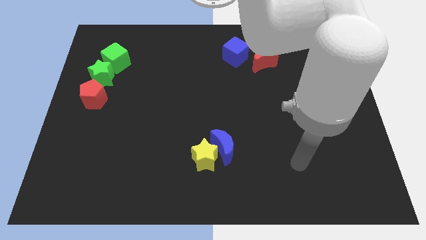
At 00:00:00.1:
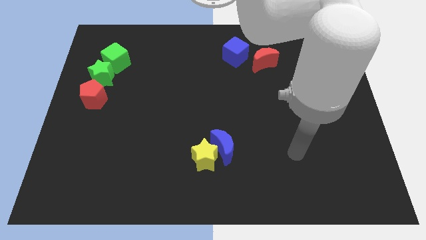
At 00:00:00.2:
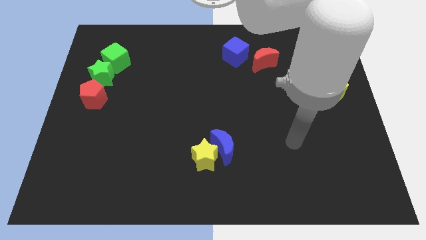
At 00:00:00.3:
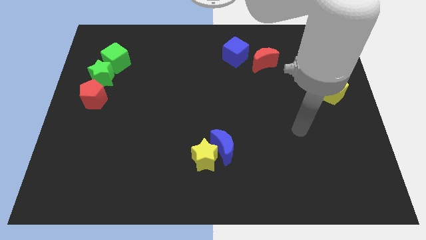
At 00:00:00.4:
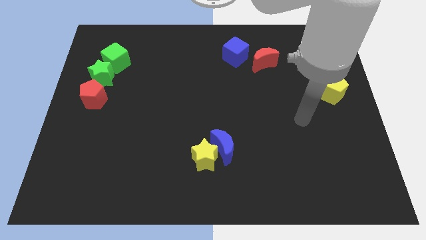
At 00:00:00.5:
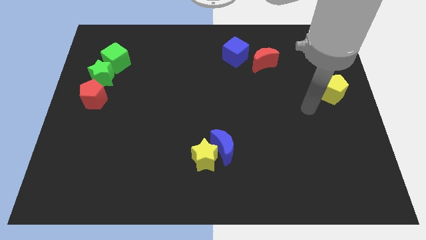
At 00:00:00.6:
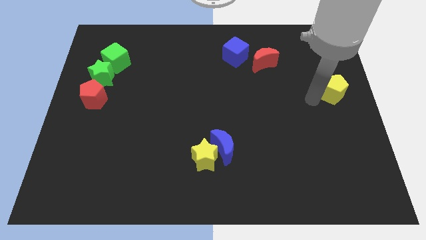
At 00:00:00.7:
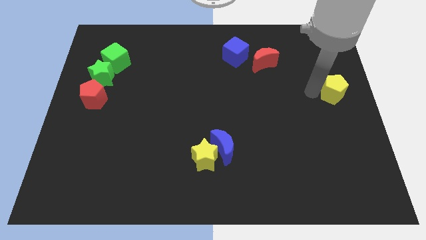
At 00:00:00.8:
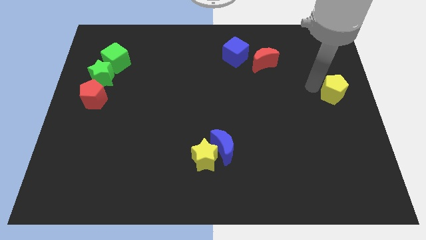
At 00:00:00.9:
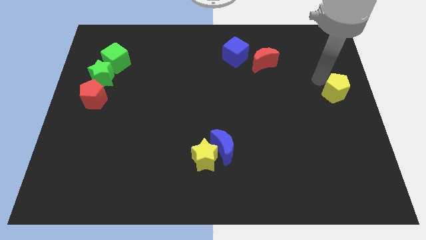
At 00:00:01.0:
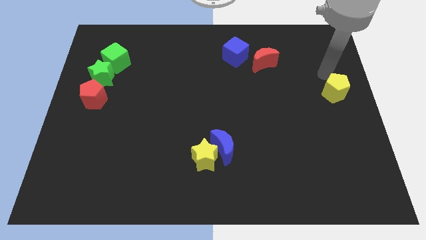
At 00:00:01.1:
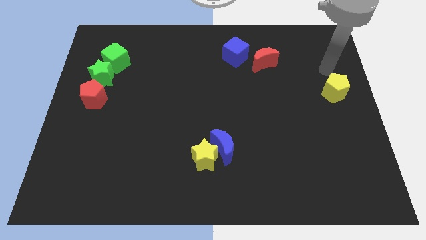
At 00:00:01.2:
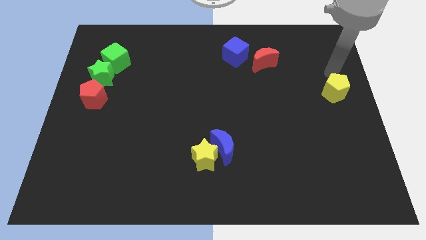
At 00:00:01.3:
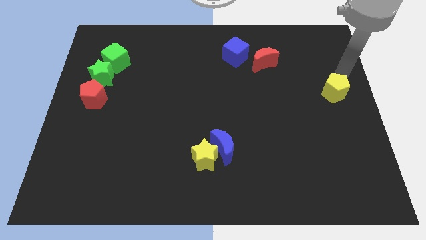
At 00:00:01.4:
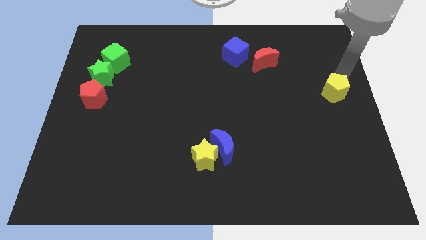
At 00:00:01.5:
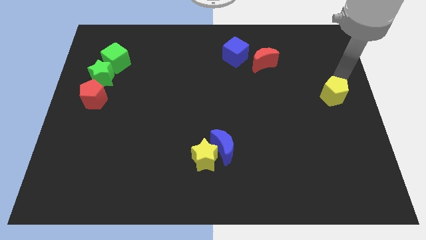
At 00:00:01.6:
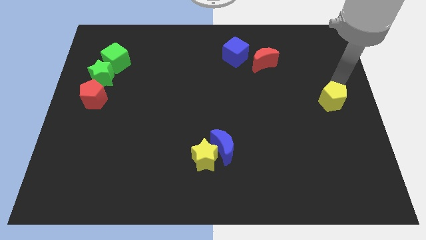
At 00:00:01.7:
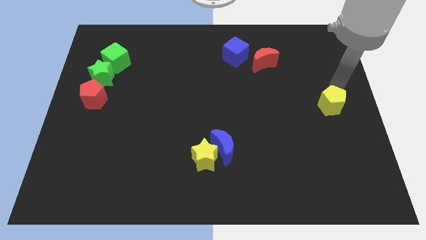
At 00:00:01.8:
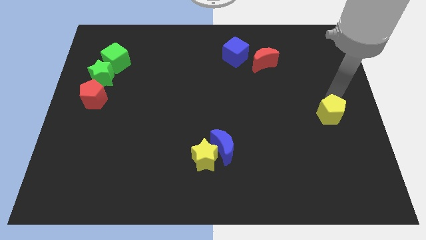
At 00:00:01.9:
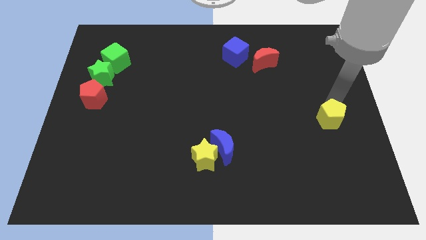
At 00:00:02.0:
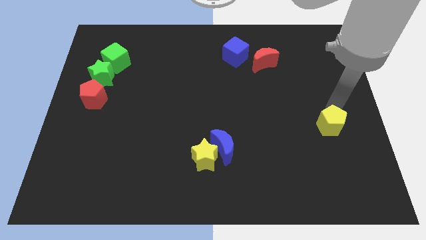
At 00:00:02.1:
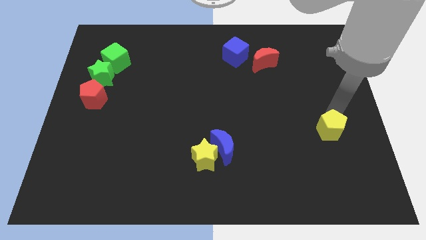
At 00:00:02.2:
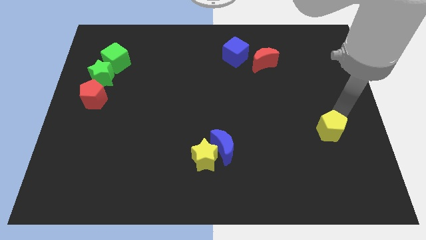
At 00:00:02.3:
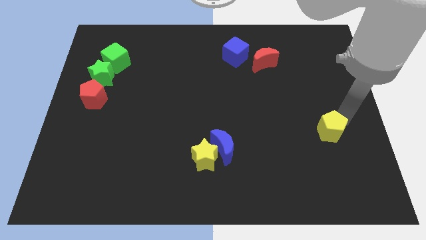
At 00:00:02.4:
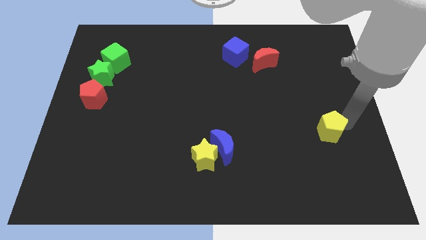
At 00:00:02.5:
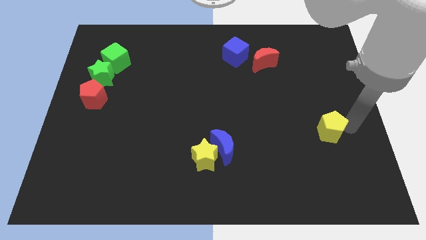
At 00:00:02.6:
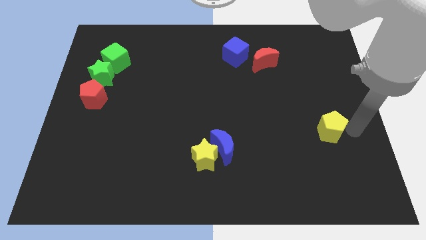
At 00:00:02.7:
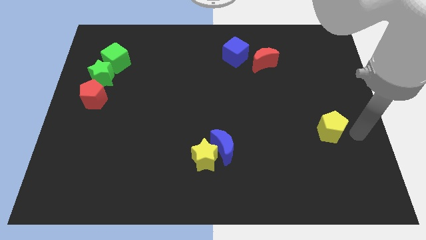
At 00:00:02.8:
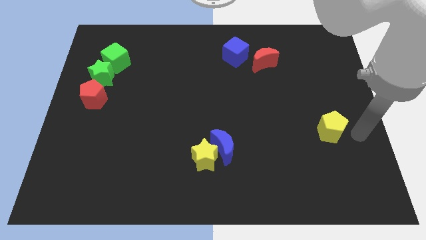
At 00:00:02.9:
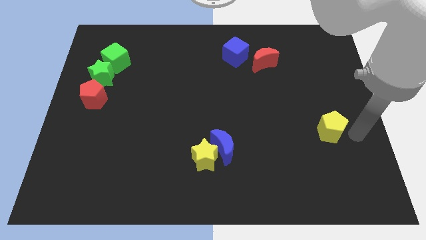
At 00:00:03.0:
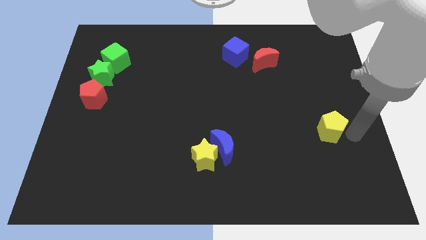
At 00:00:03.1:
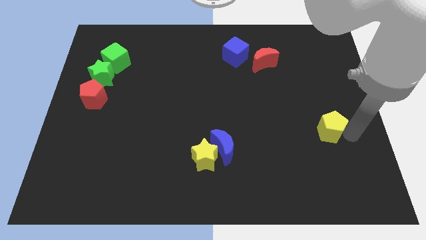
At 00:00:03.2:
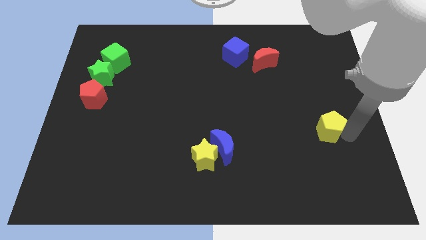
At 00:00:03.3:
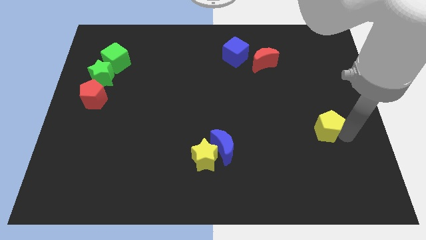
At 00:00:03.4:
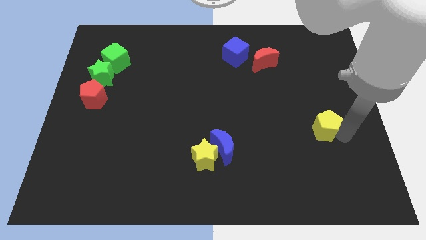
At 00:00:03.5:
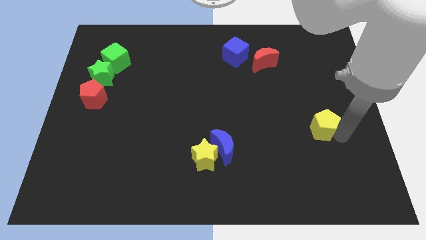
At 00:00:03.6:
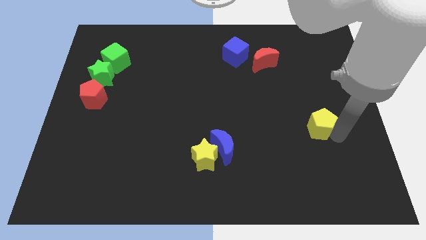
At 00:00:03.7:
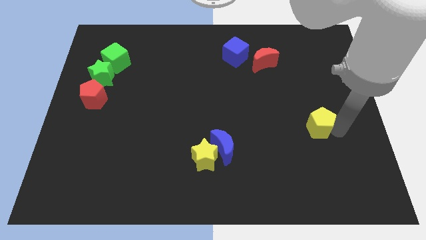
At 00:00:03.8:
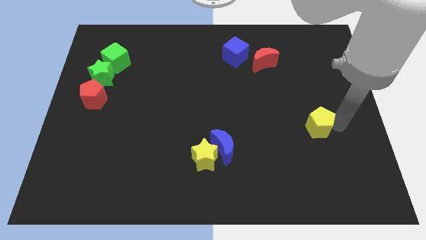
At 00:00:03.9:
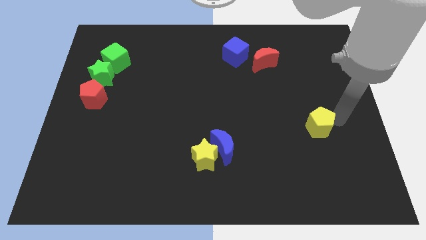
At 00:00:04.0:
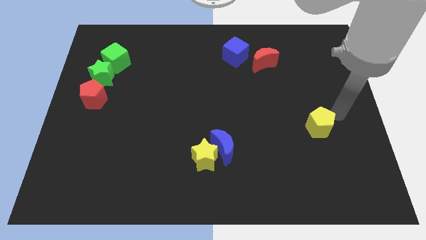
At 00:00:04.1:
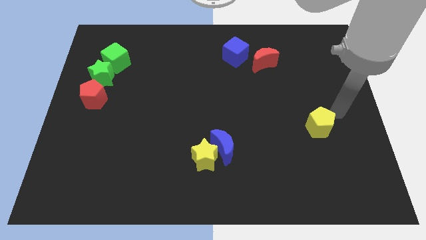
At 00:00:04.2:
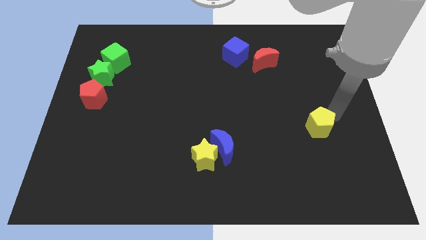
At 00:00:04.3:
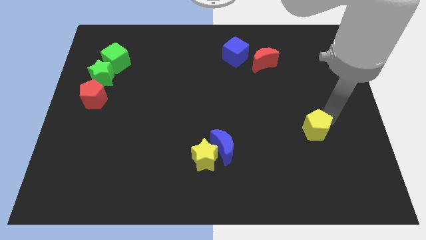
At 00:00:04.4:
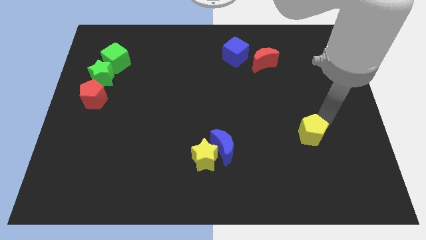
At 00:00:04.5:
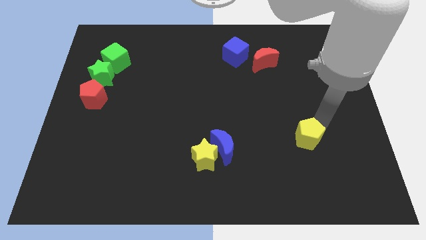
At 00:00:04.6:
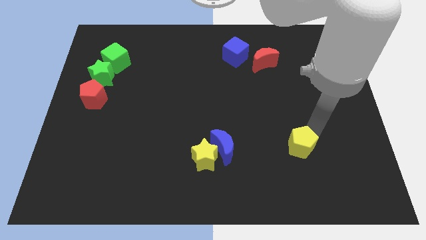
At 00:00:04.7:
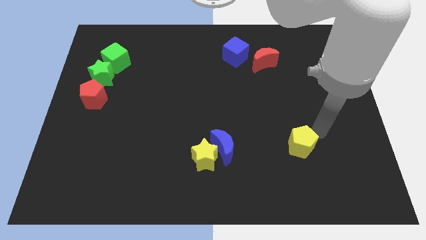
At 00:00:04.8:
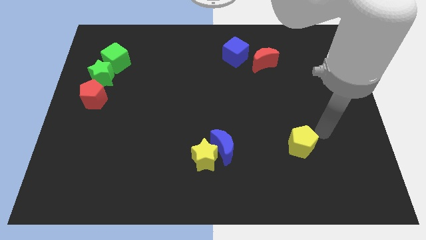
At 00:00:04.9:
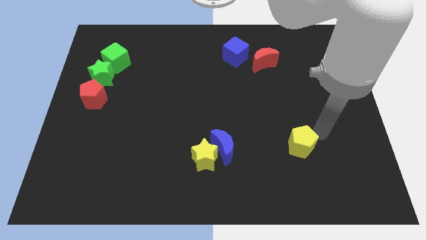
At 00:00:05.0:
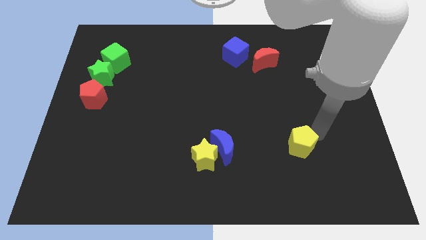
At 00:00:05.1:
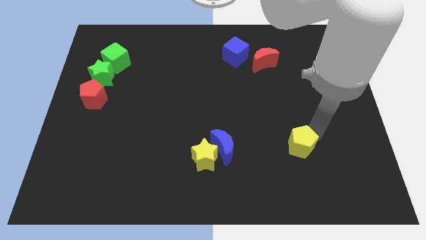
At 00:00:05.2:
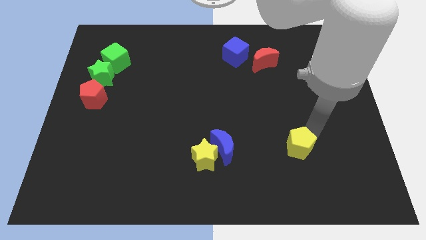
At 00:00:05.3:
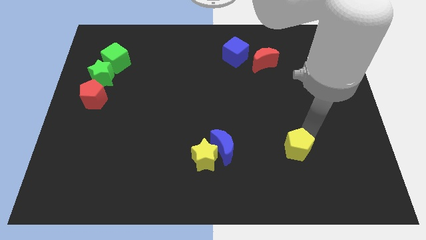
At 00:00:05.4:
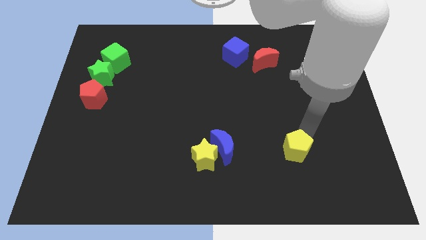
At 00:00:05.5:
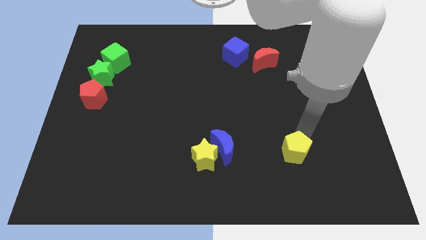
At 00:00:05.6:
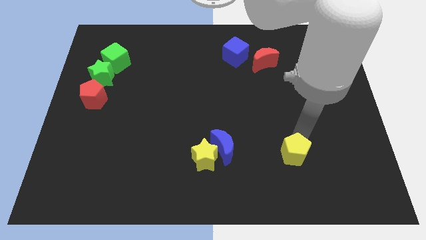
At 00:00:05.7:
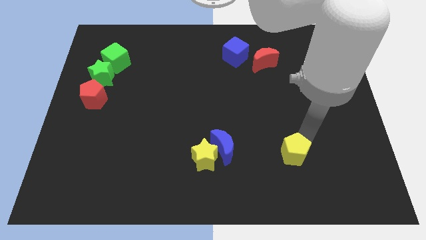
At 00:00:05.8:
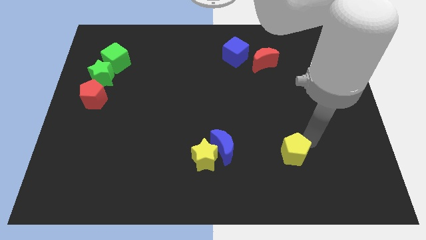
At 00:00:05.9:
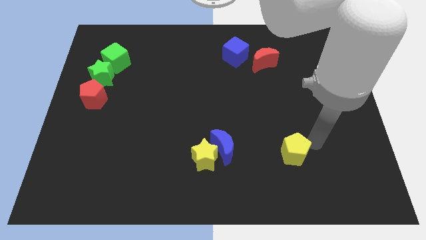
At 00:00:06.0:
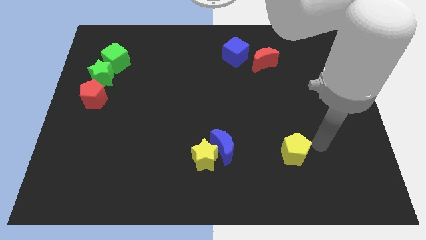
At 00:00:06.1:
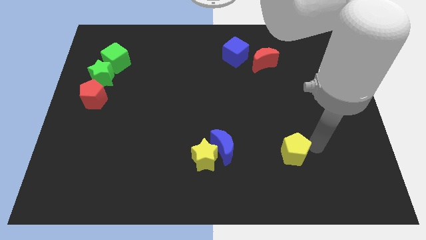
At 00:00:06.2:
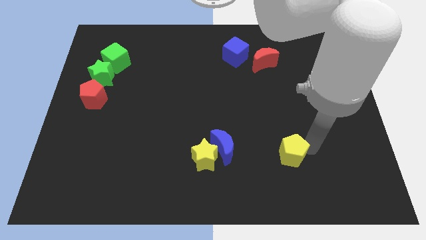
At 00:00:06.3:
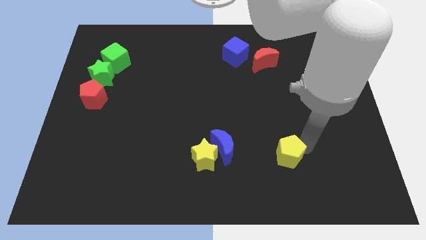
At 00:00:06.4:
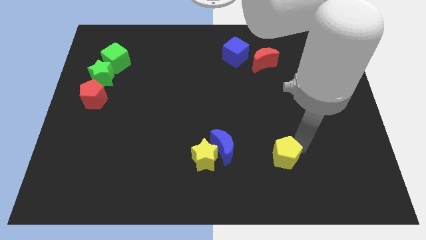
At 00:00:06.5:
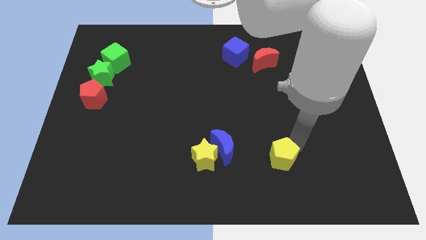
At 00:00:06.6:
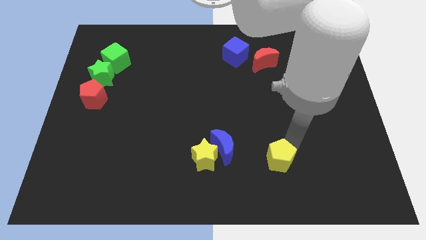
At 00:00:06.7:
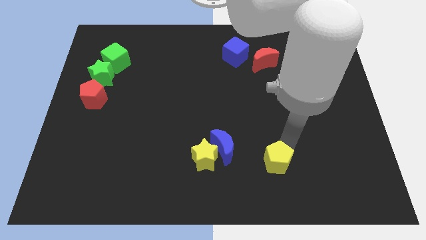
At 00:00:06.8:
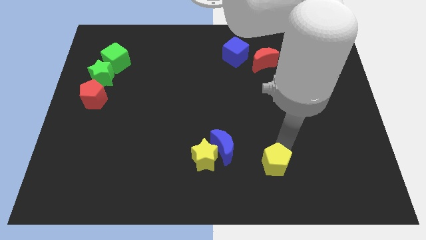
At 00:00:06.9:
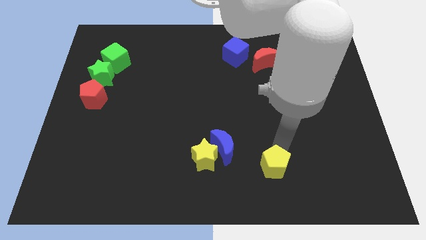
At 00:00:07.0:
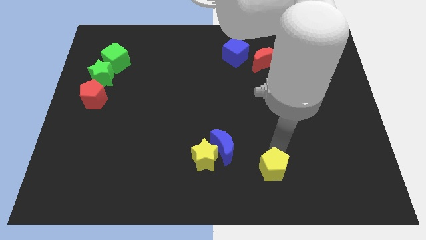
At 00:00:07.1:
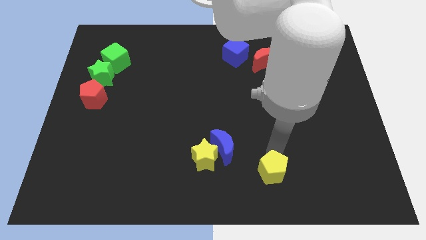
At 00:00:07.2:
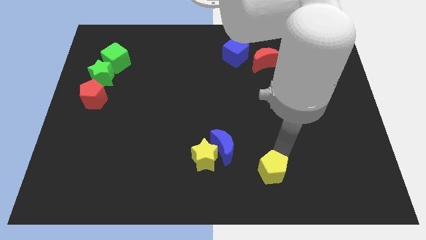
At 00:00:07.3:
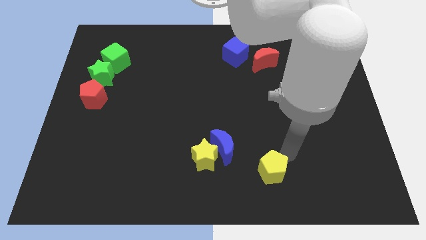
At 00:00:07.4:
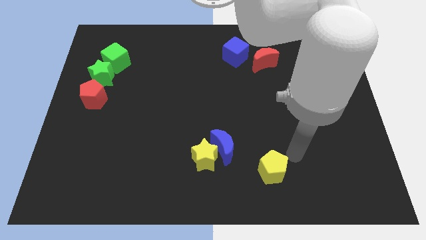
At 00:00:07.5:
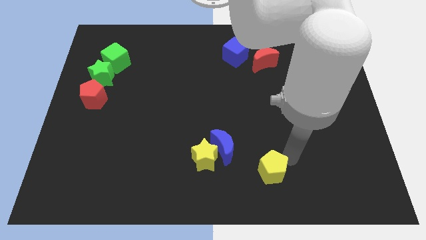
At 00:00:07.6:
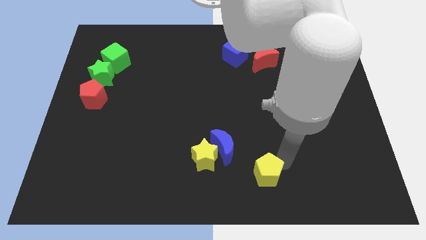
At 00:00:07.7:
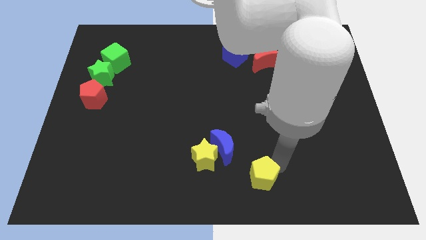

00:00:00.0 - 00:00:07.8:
move the yellow pentagon to the bottom
